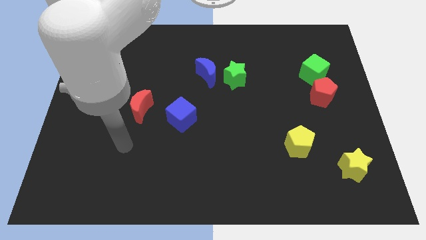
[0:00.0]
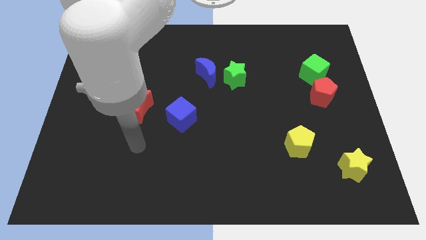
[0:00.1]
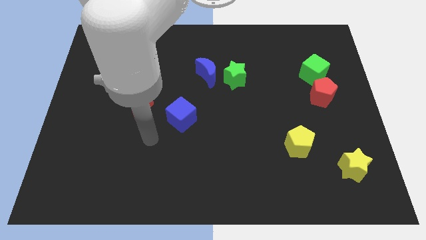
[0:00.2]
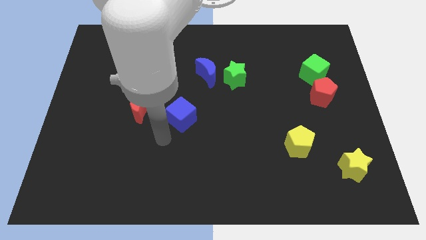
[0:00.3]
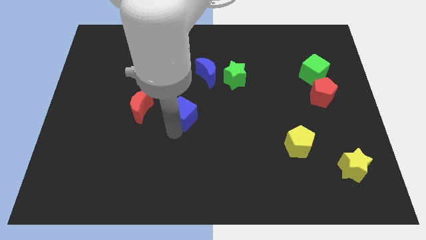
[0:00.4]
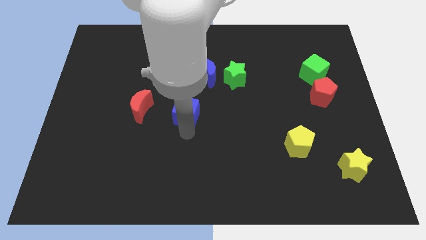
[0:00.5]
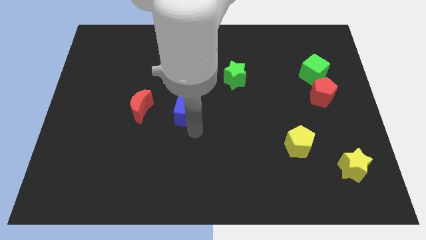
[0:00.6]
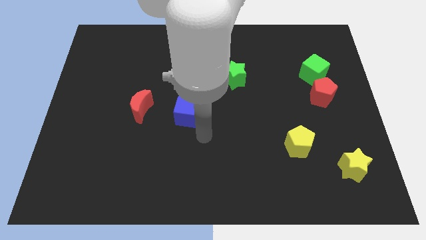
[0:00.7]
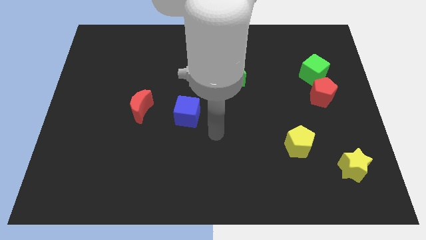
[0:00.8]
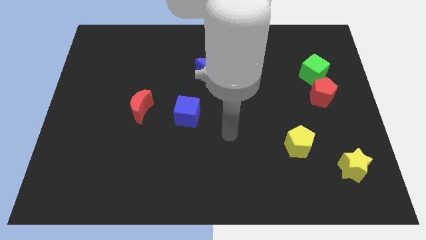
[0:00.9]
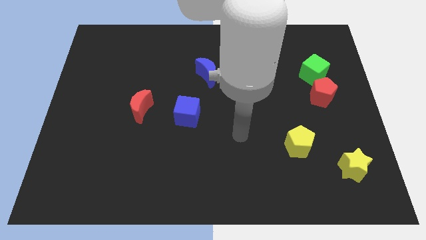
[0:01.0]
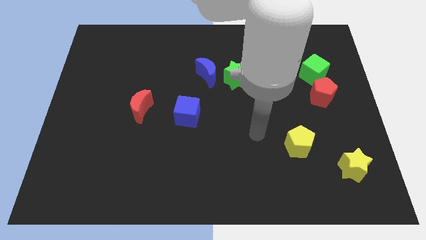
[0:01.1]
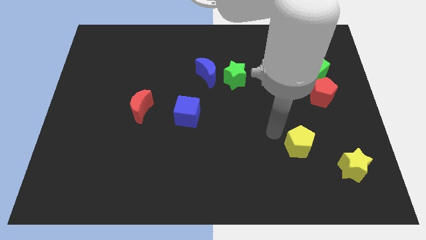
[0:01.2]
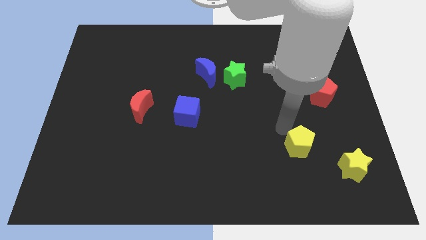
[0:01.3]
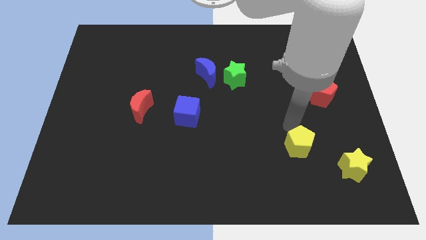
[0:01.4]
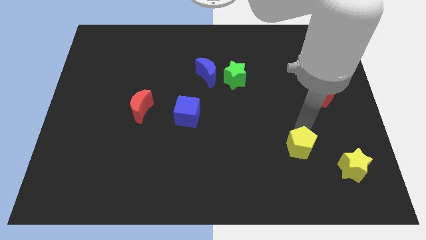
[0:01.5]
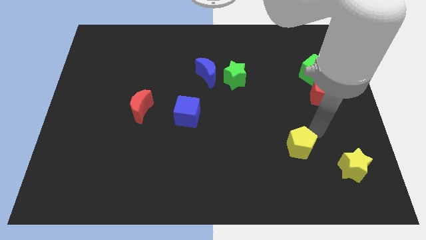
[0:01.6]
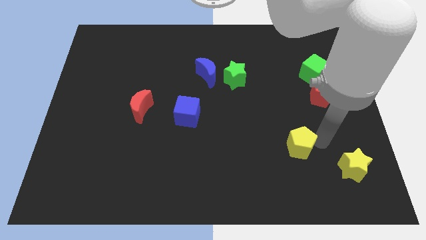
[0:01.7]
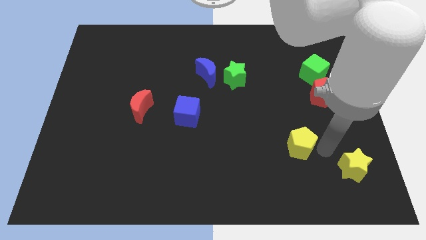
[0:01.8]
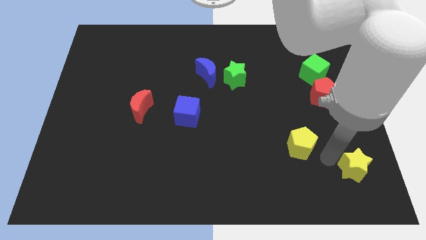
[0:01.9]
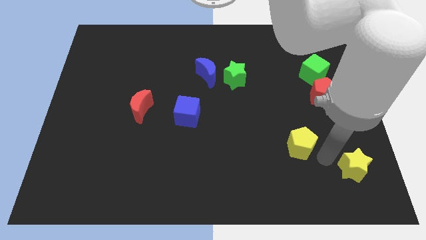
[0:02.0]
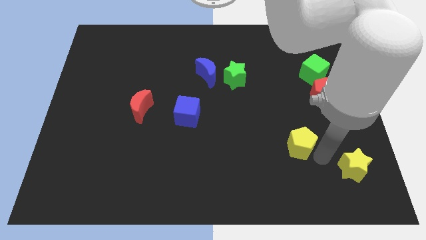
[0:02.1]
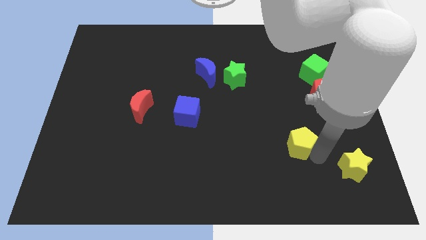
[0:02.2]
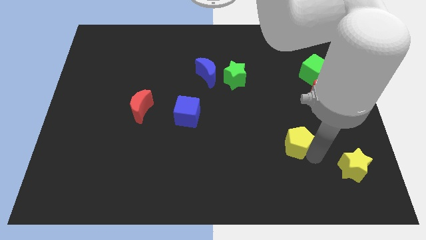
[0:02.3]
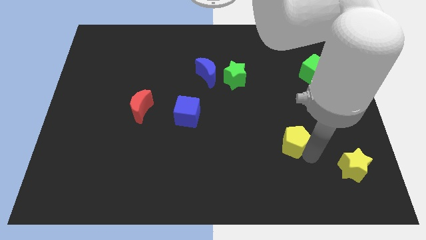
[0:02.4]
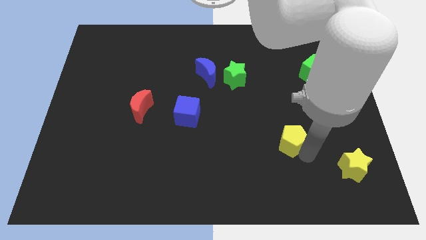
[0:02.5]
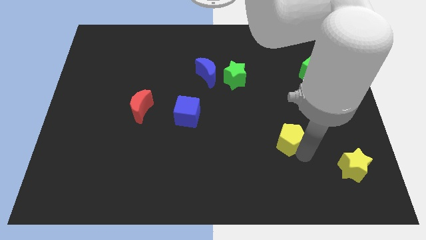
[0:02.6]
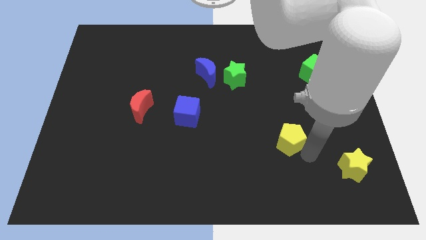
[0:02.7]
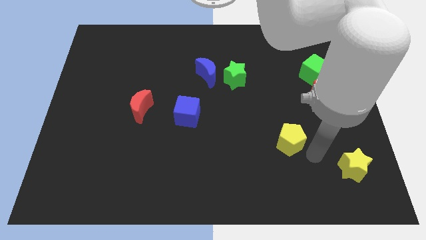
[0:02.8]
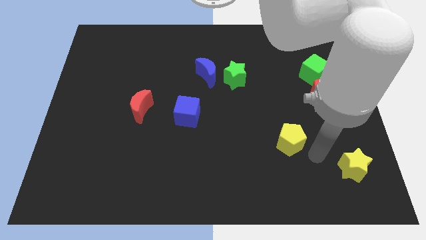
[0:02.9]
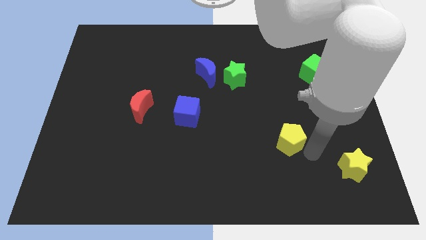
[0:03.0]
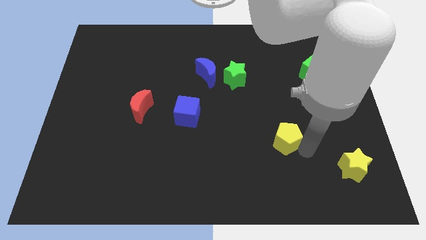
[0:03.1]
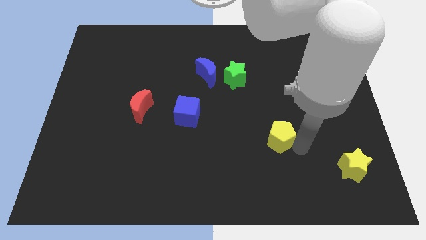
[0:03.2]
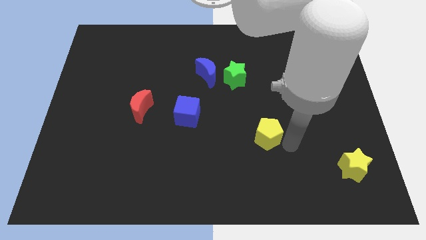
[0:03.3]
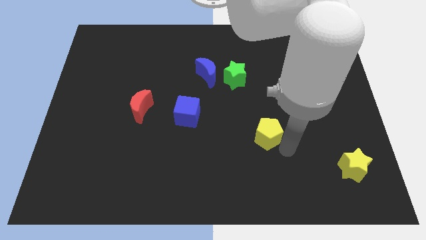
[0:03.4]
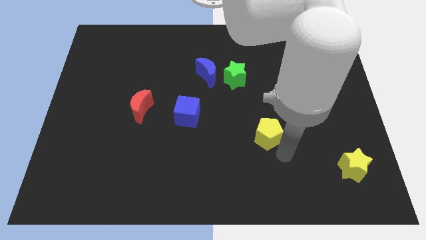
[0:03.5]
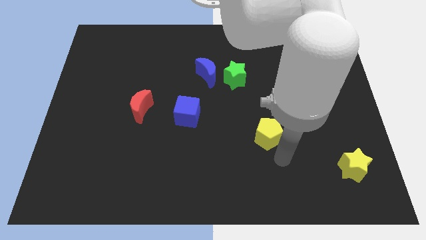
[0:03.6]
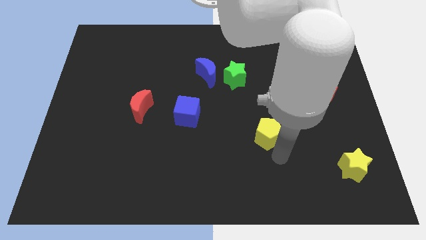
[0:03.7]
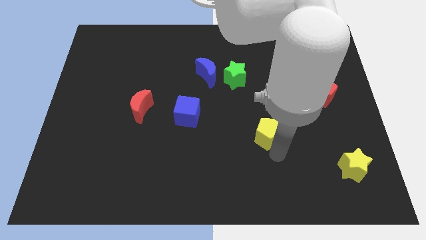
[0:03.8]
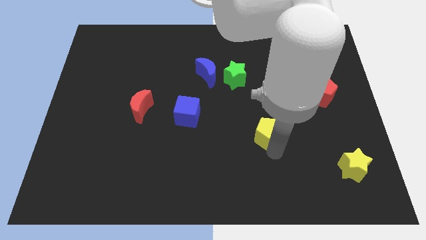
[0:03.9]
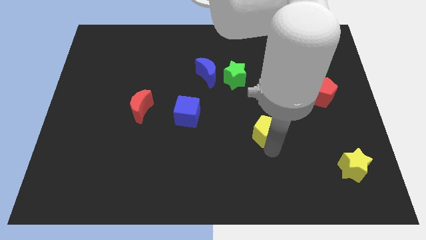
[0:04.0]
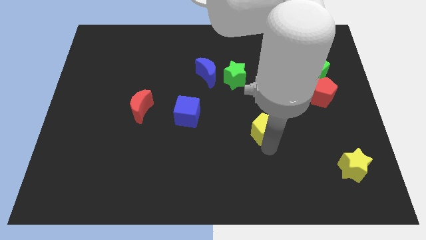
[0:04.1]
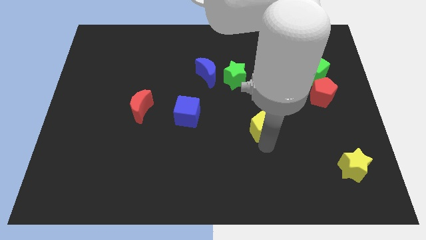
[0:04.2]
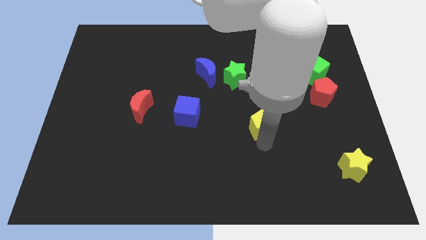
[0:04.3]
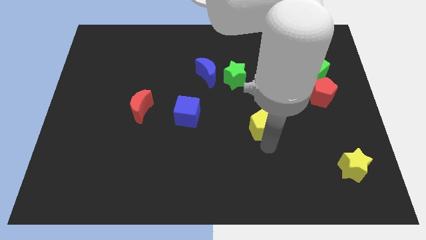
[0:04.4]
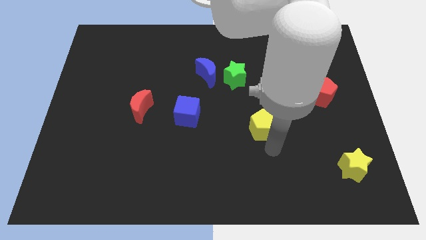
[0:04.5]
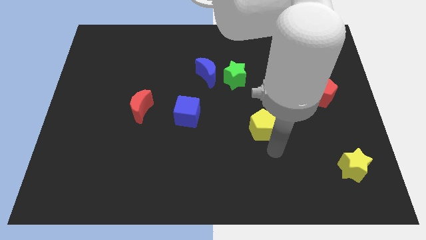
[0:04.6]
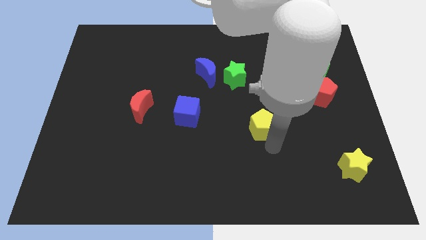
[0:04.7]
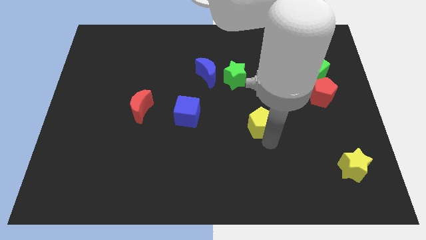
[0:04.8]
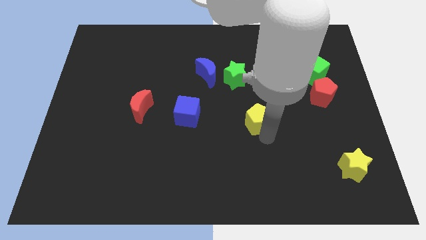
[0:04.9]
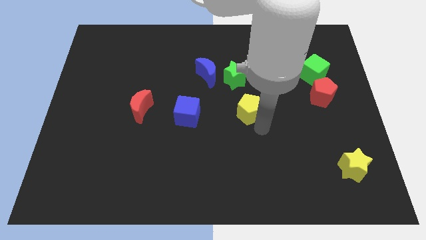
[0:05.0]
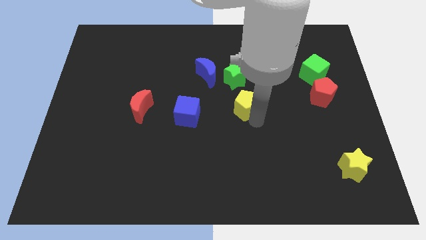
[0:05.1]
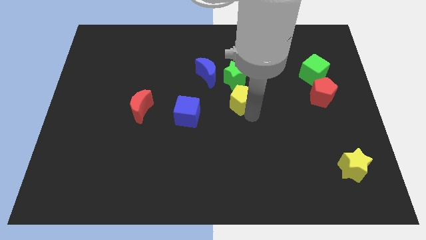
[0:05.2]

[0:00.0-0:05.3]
push the yellow pentagon diagonally down and to the right of the blue moon

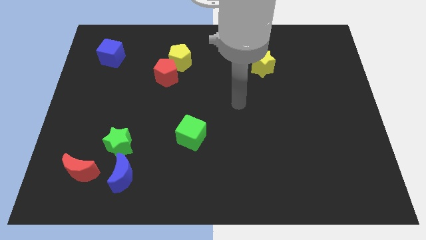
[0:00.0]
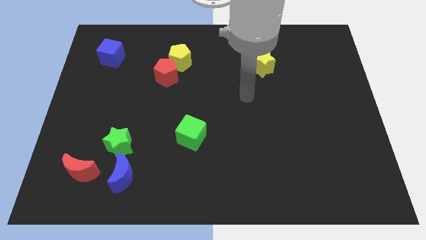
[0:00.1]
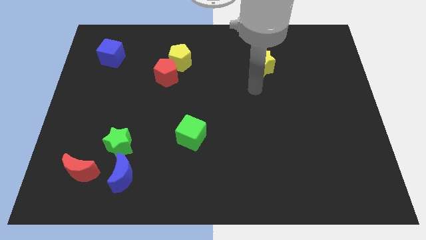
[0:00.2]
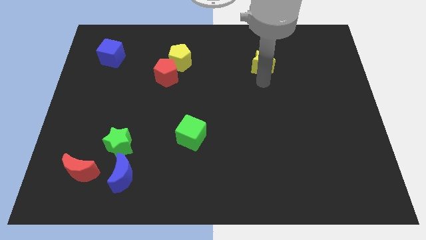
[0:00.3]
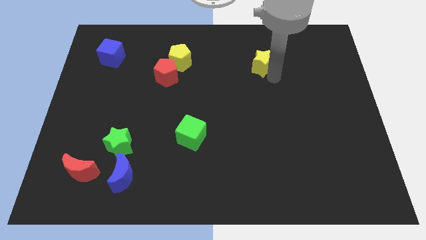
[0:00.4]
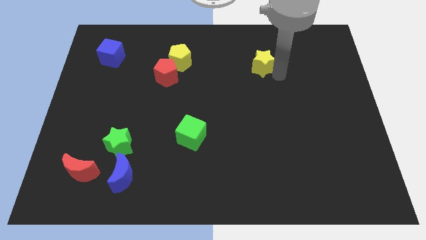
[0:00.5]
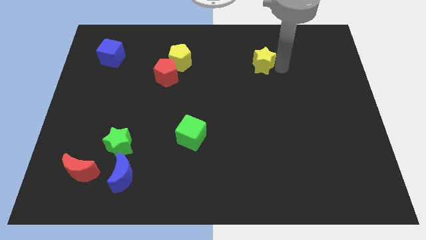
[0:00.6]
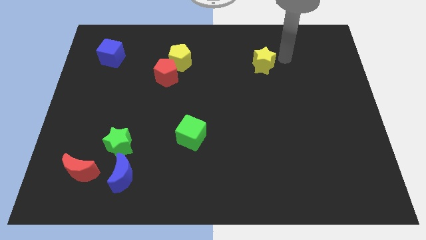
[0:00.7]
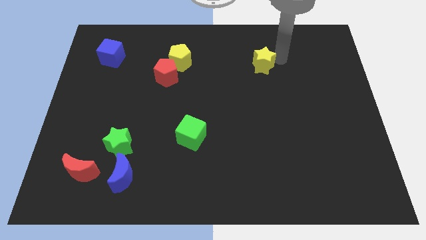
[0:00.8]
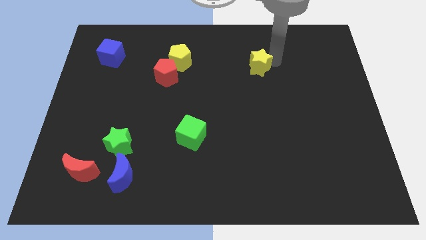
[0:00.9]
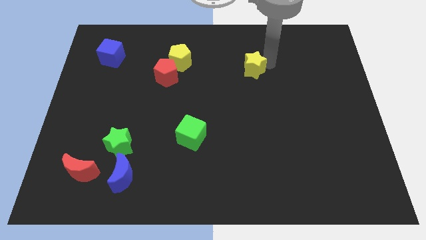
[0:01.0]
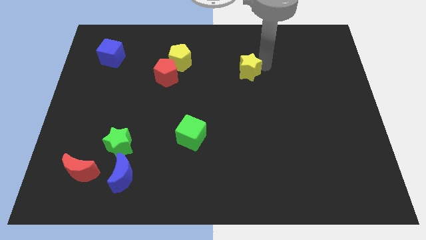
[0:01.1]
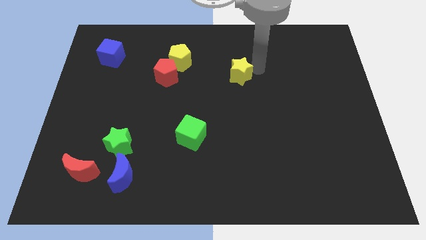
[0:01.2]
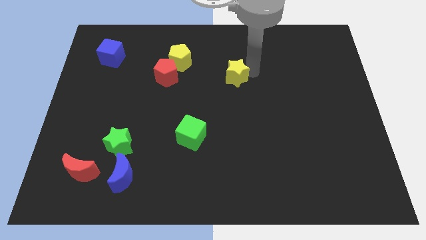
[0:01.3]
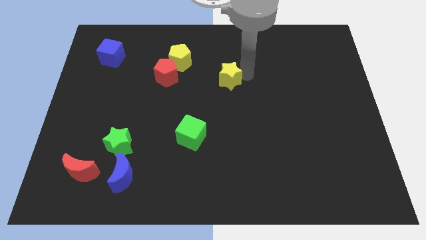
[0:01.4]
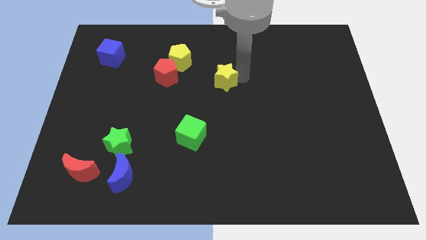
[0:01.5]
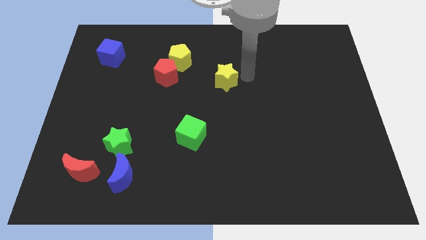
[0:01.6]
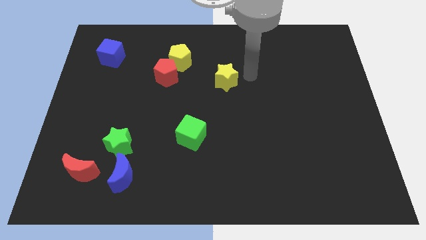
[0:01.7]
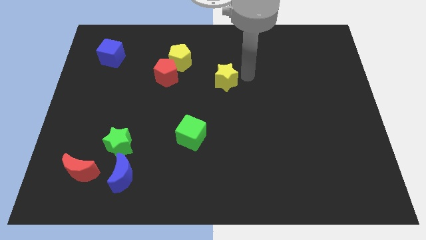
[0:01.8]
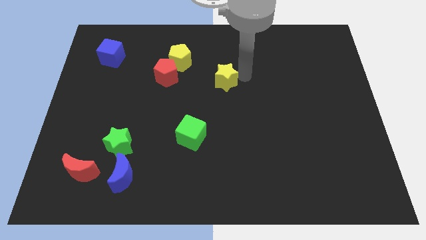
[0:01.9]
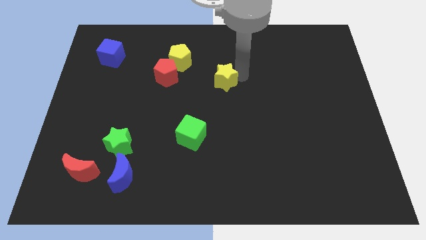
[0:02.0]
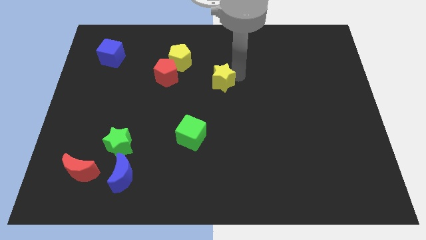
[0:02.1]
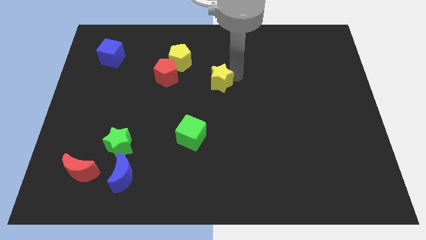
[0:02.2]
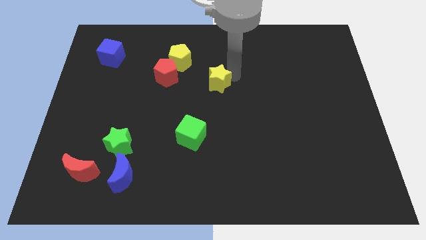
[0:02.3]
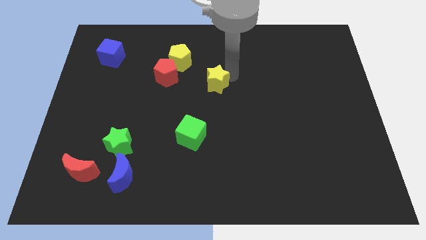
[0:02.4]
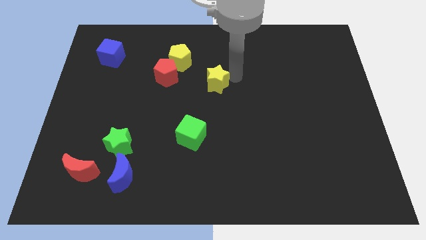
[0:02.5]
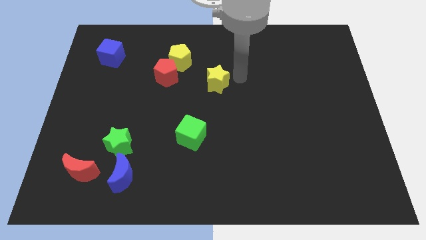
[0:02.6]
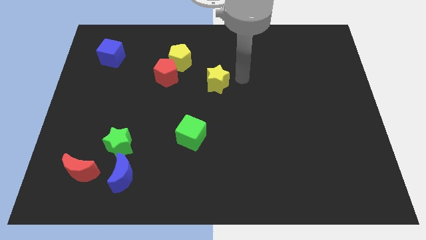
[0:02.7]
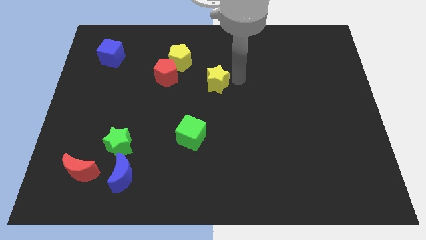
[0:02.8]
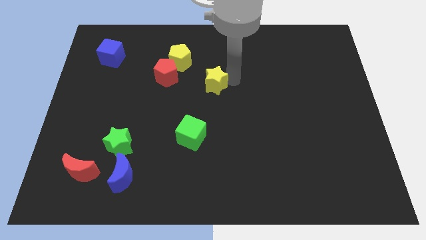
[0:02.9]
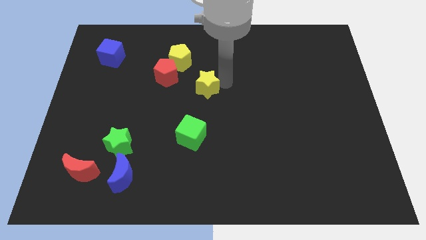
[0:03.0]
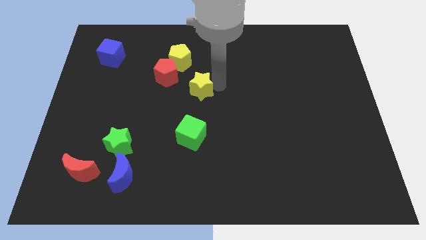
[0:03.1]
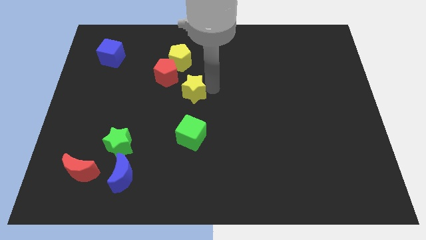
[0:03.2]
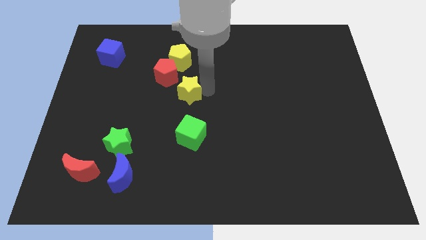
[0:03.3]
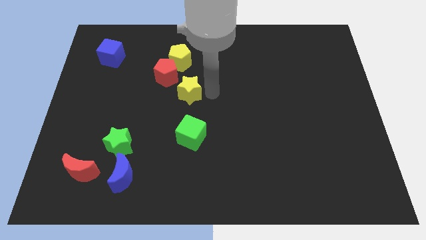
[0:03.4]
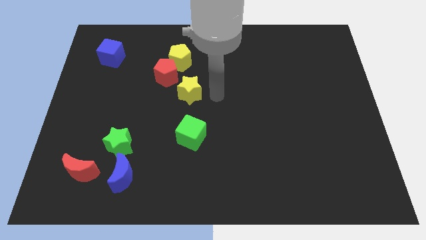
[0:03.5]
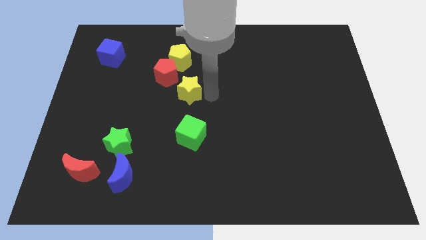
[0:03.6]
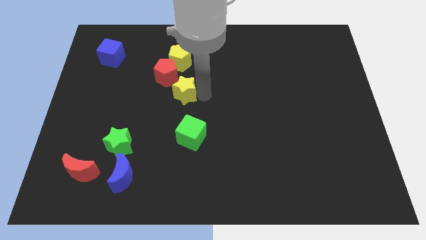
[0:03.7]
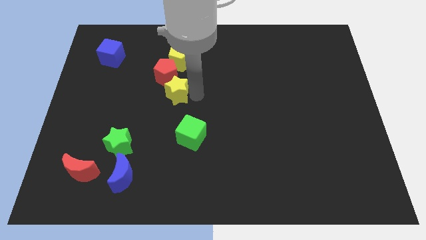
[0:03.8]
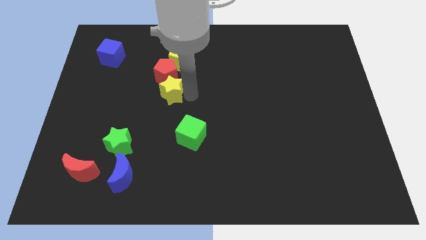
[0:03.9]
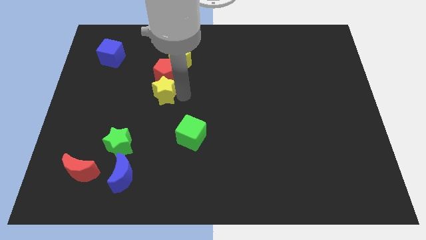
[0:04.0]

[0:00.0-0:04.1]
move the yellow star to the bottom left side of the red pentagon
